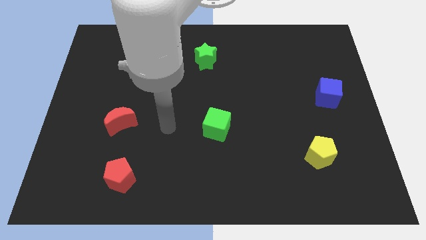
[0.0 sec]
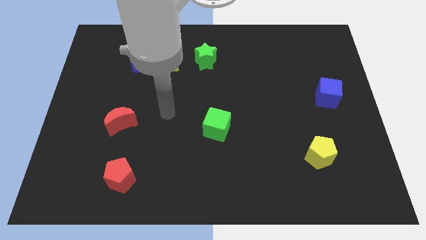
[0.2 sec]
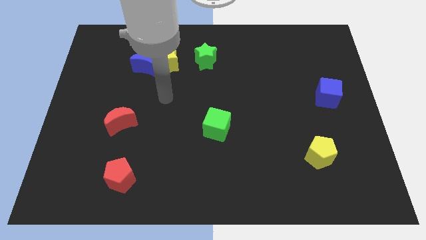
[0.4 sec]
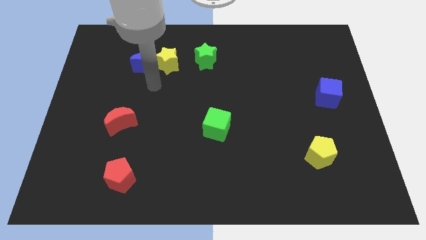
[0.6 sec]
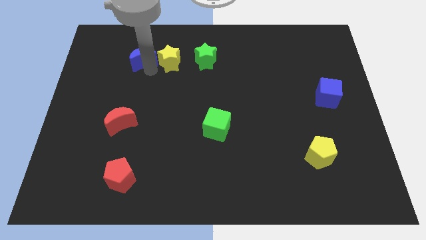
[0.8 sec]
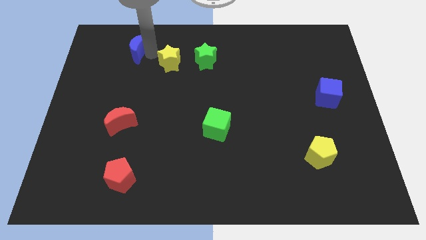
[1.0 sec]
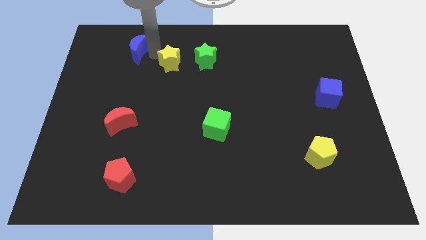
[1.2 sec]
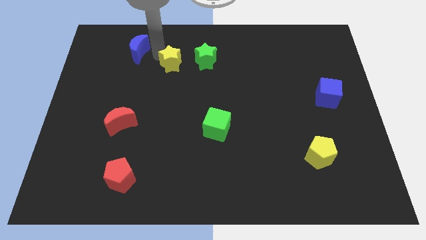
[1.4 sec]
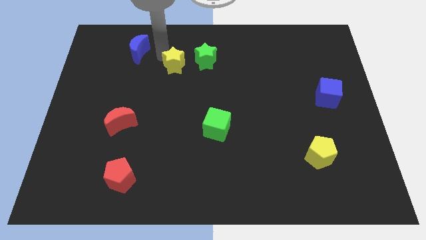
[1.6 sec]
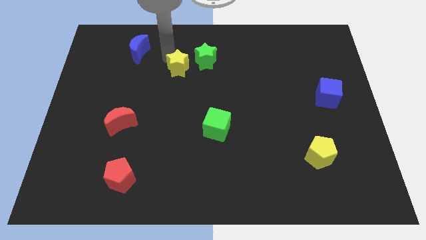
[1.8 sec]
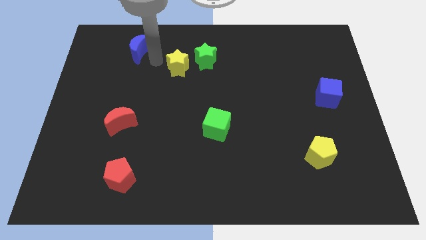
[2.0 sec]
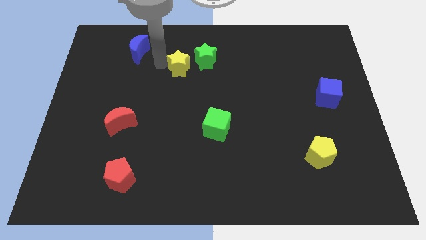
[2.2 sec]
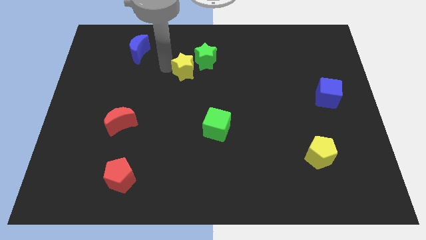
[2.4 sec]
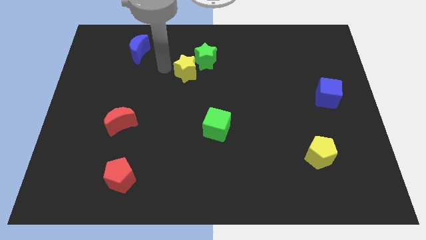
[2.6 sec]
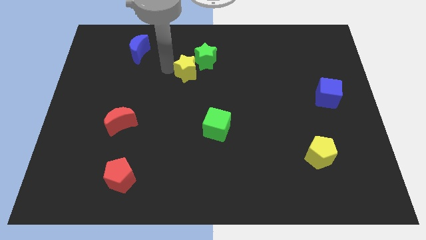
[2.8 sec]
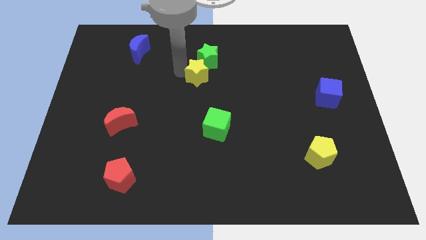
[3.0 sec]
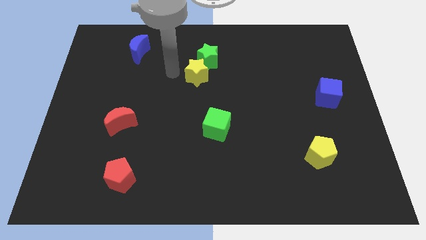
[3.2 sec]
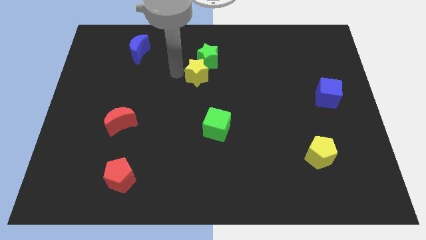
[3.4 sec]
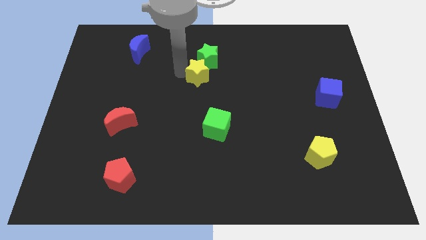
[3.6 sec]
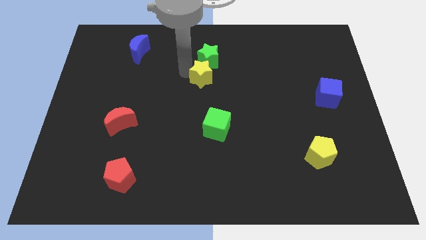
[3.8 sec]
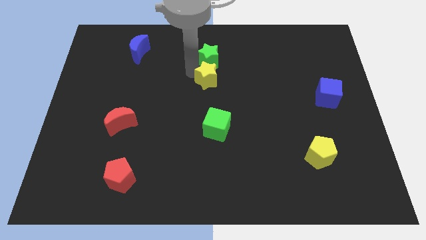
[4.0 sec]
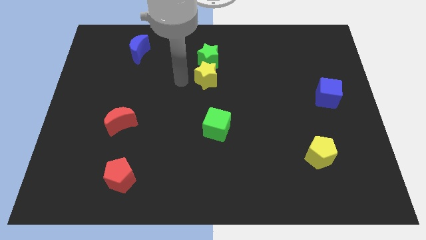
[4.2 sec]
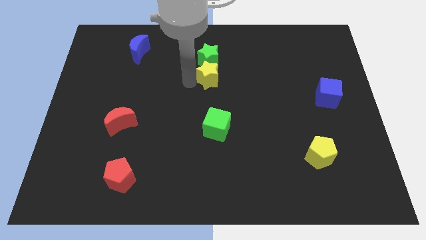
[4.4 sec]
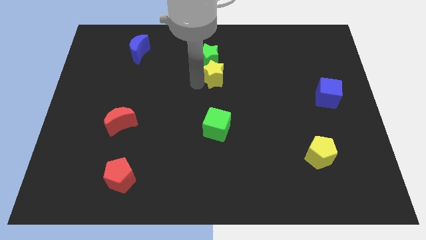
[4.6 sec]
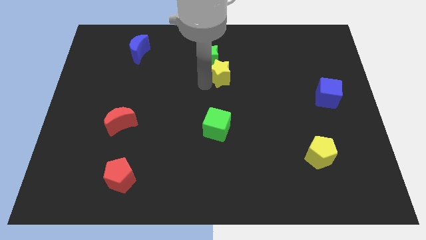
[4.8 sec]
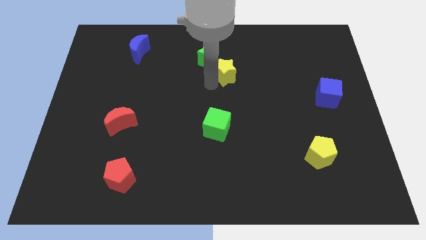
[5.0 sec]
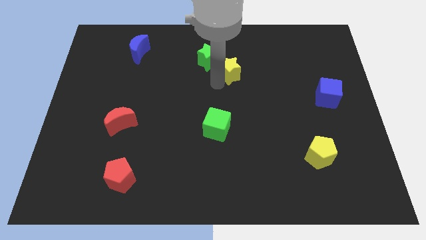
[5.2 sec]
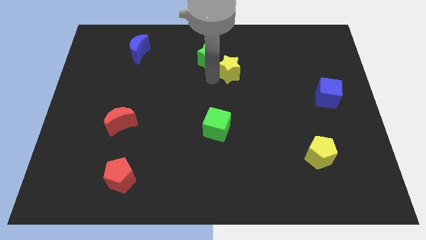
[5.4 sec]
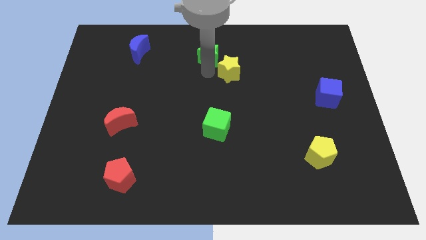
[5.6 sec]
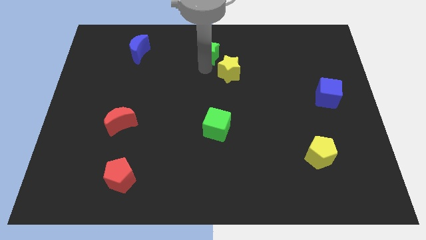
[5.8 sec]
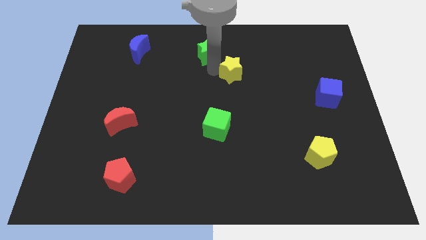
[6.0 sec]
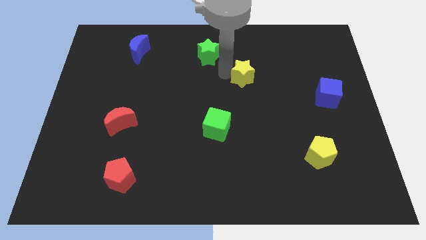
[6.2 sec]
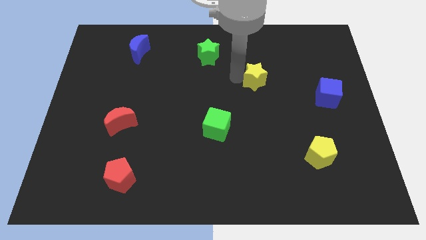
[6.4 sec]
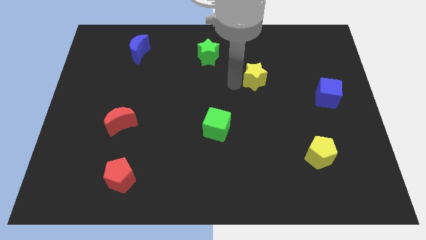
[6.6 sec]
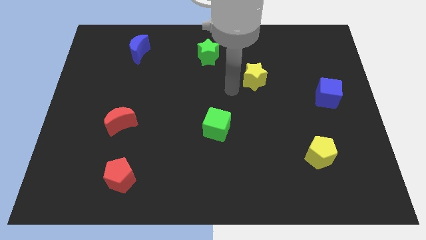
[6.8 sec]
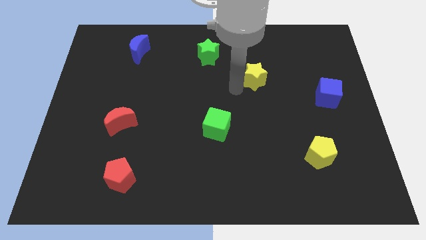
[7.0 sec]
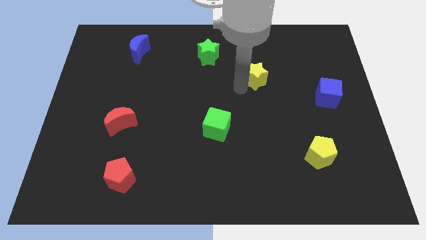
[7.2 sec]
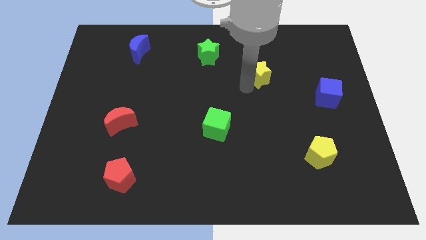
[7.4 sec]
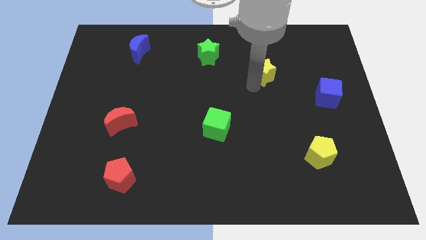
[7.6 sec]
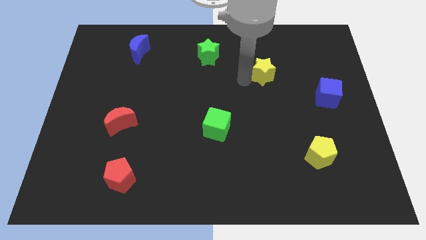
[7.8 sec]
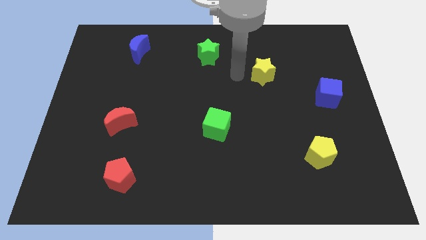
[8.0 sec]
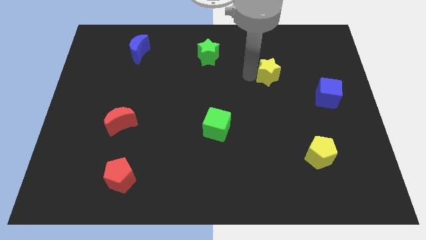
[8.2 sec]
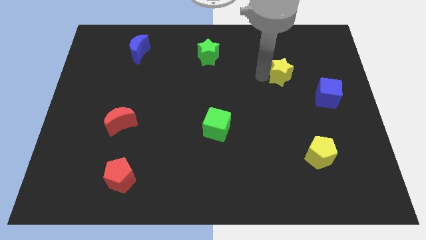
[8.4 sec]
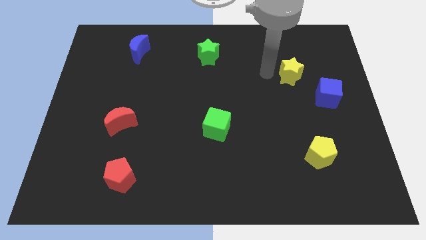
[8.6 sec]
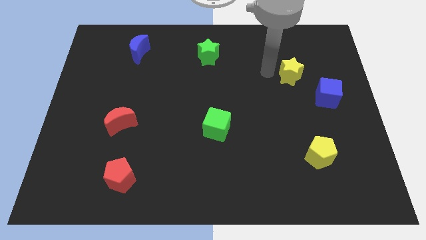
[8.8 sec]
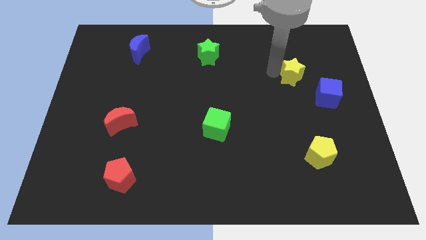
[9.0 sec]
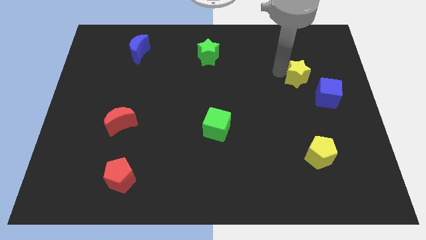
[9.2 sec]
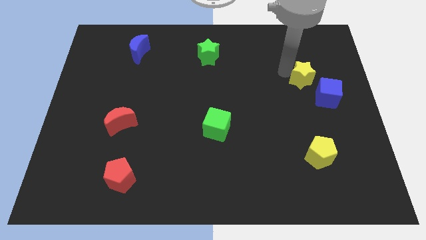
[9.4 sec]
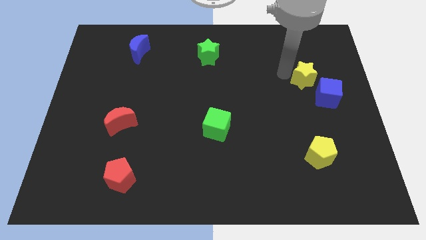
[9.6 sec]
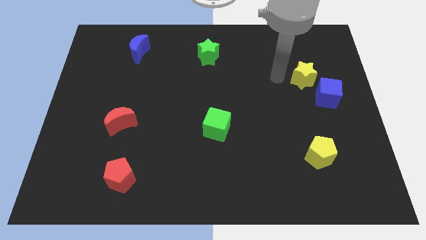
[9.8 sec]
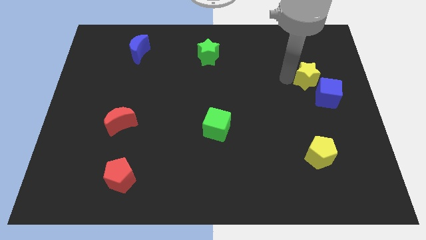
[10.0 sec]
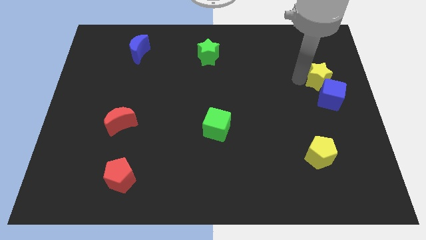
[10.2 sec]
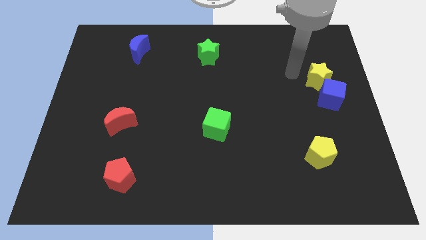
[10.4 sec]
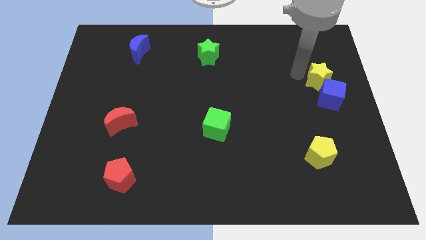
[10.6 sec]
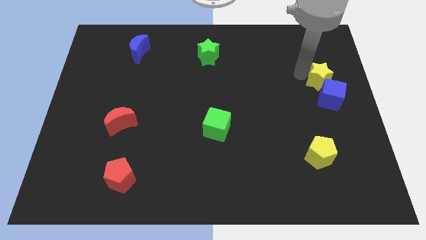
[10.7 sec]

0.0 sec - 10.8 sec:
push the yellow star to the right side of the board
